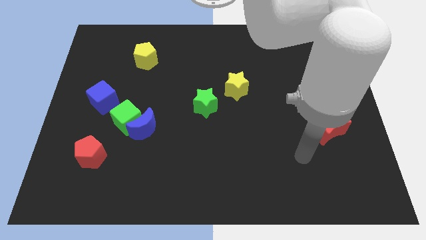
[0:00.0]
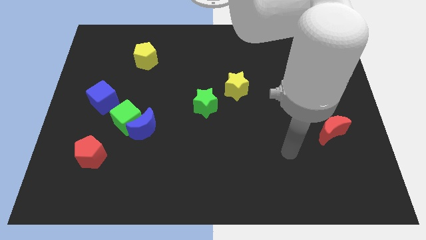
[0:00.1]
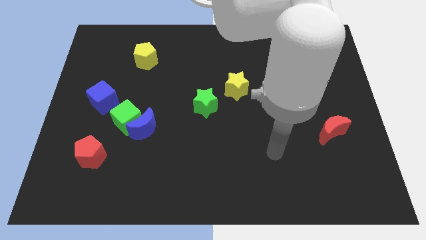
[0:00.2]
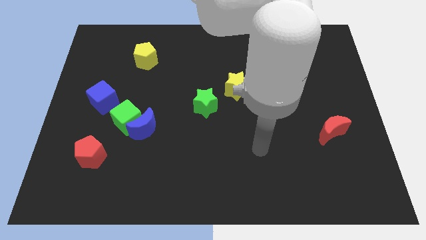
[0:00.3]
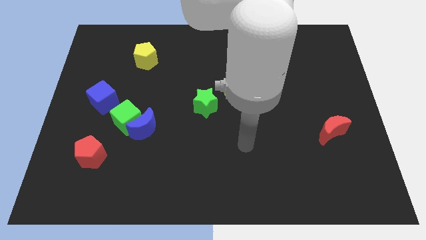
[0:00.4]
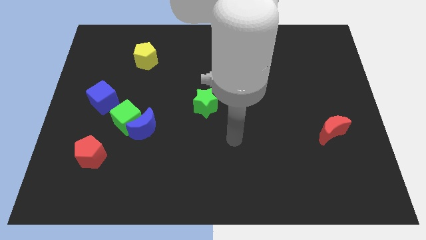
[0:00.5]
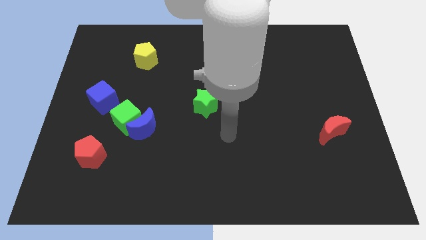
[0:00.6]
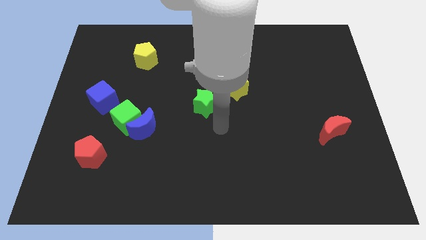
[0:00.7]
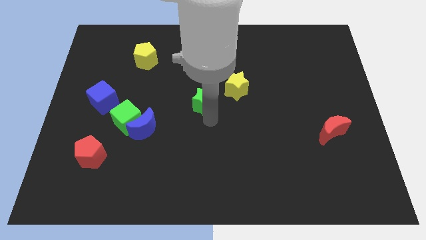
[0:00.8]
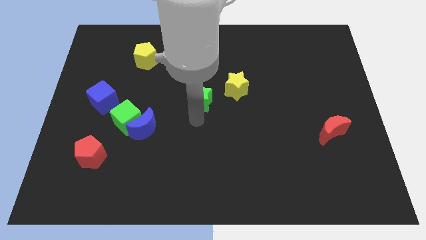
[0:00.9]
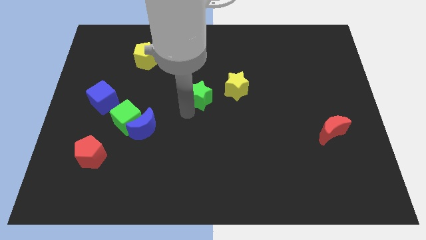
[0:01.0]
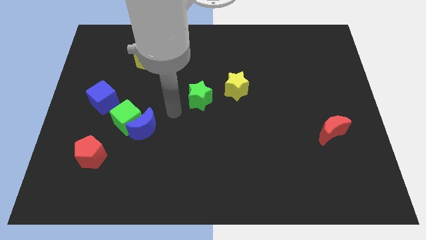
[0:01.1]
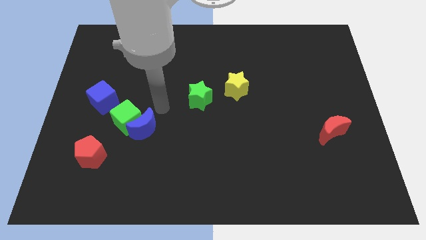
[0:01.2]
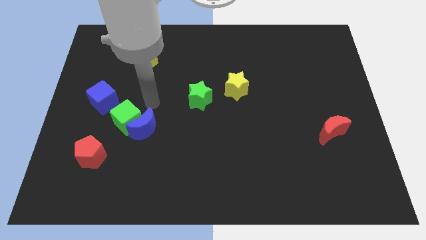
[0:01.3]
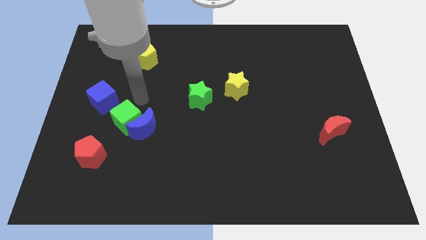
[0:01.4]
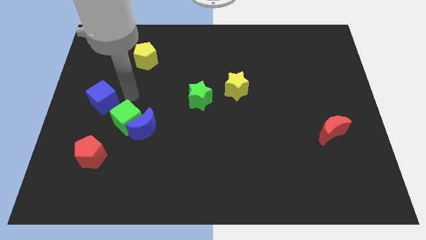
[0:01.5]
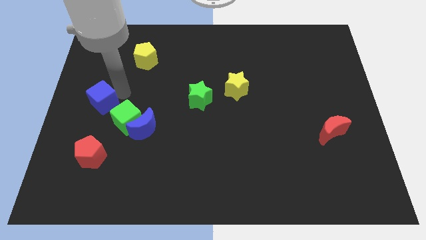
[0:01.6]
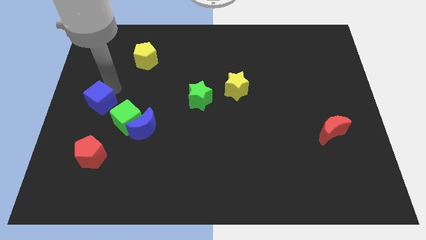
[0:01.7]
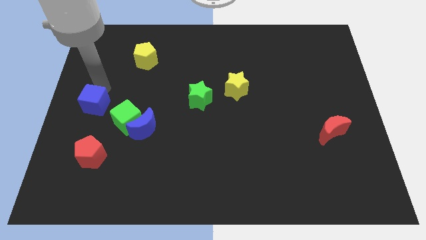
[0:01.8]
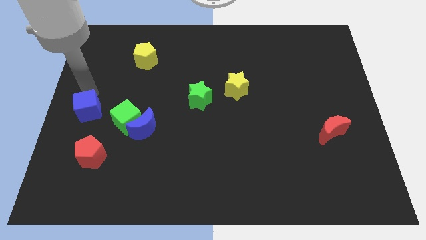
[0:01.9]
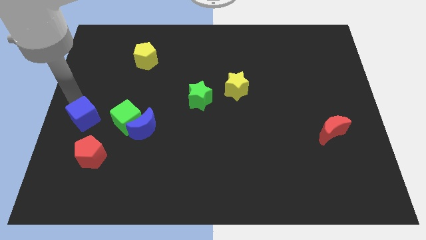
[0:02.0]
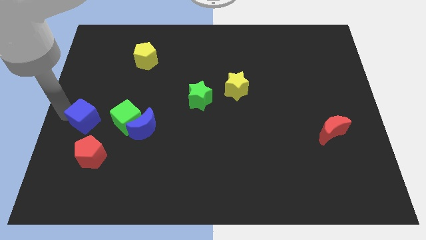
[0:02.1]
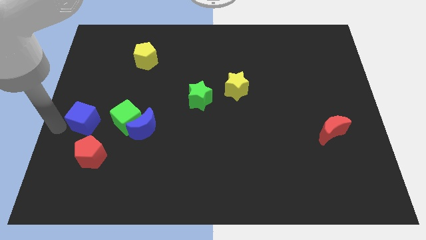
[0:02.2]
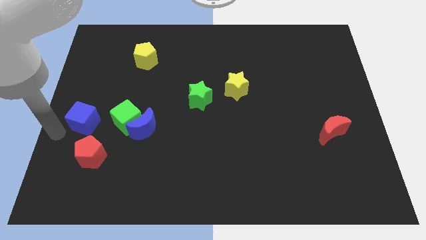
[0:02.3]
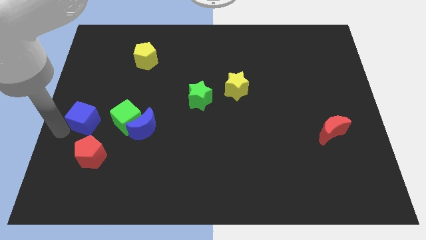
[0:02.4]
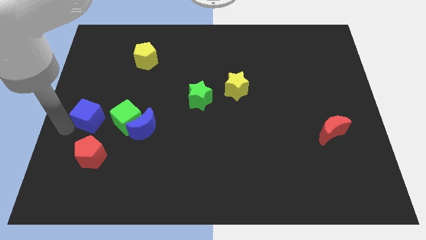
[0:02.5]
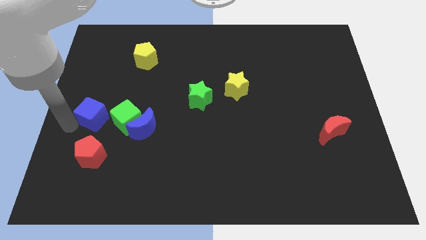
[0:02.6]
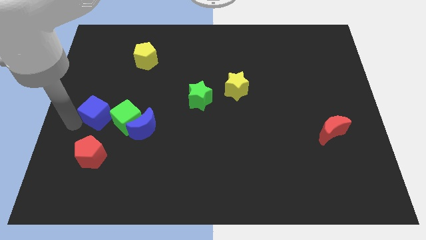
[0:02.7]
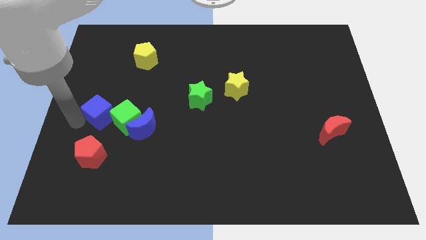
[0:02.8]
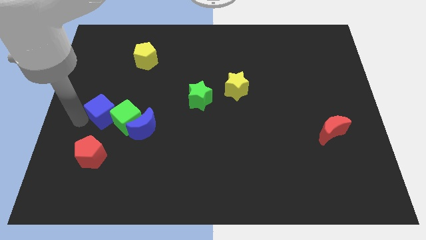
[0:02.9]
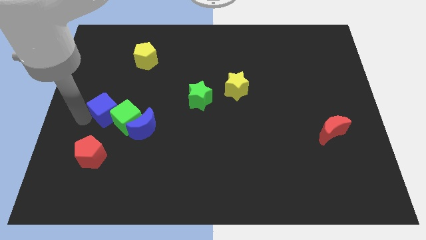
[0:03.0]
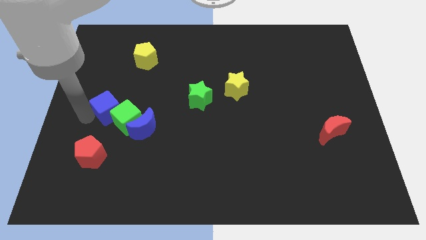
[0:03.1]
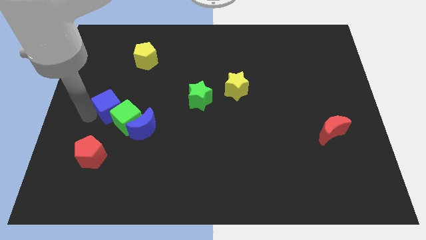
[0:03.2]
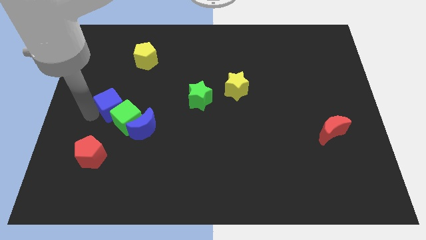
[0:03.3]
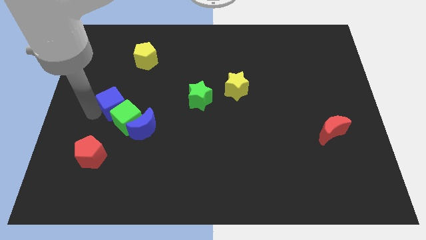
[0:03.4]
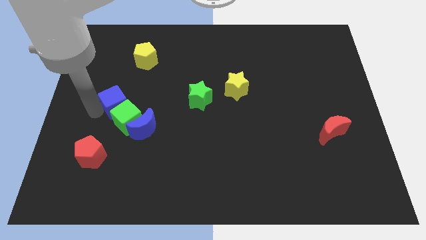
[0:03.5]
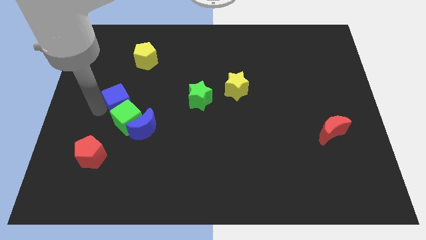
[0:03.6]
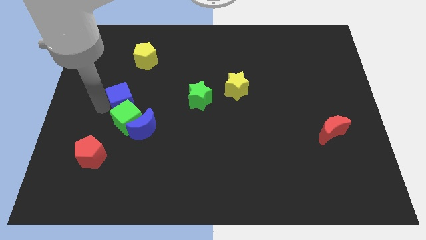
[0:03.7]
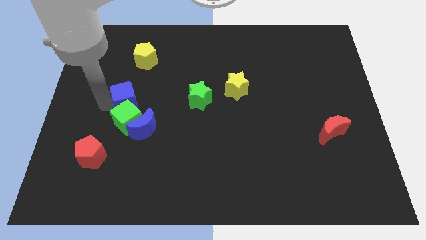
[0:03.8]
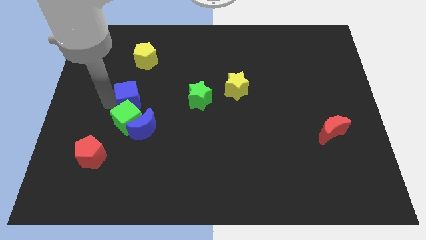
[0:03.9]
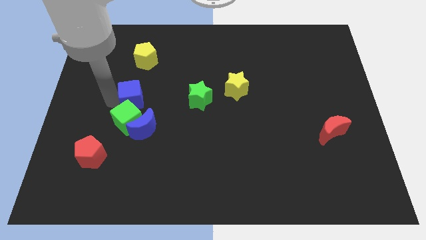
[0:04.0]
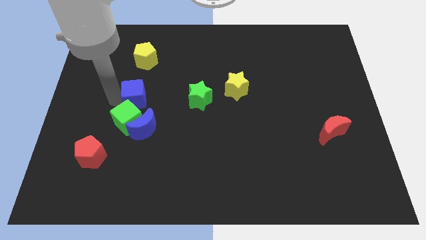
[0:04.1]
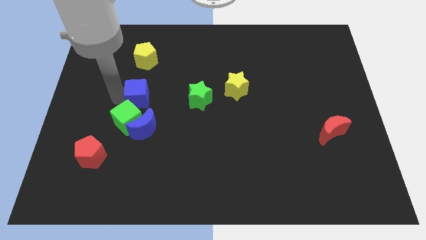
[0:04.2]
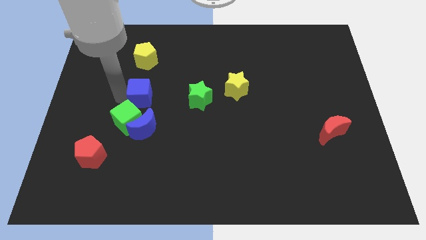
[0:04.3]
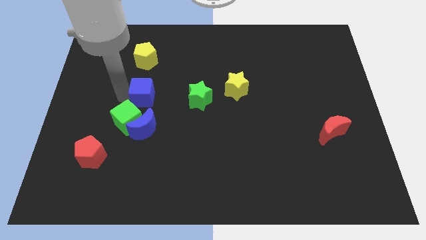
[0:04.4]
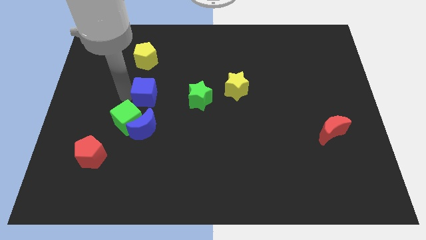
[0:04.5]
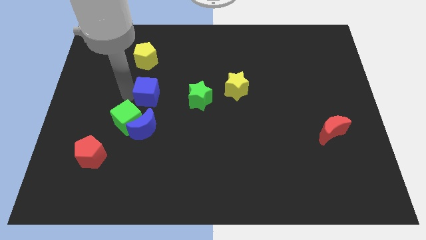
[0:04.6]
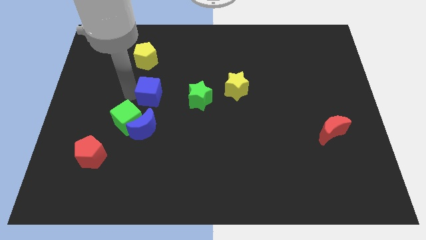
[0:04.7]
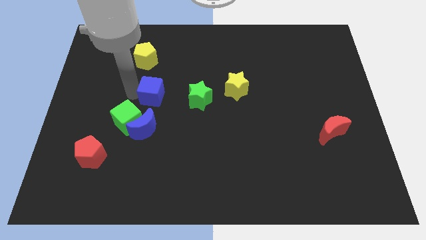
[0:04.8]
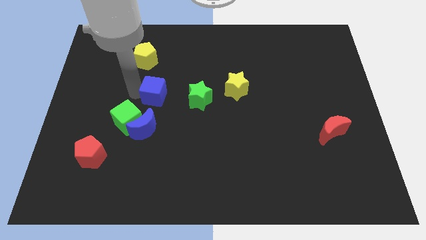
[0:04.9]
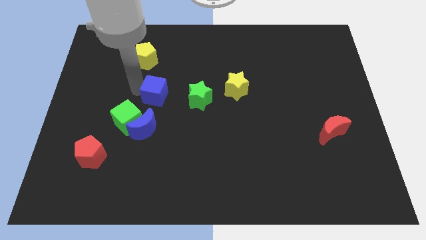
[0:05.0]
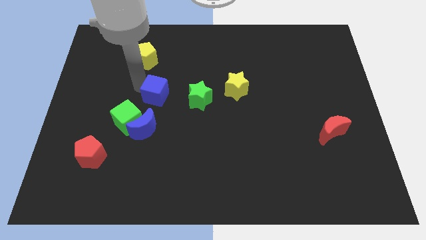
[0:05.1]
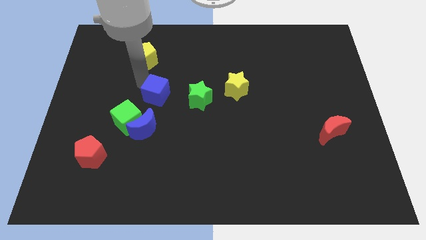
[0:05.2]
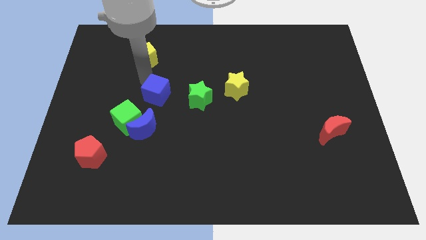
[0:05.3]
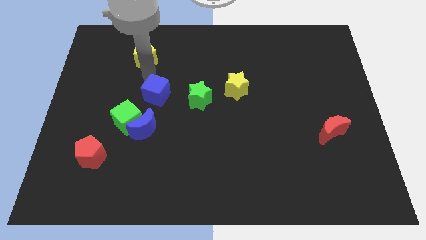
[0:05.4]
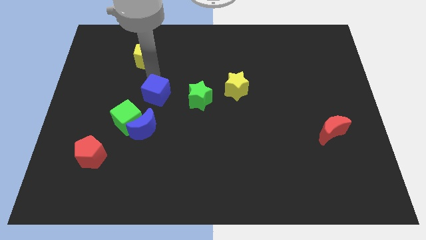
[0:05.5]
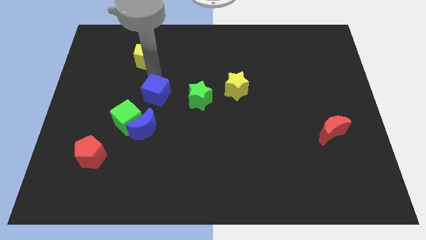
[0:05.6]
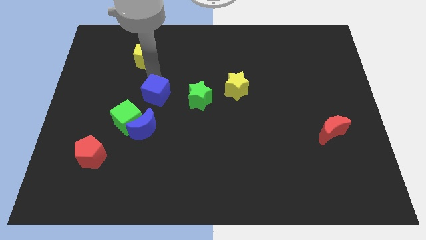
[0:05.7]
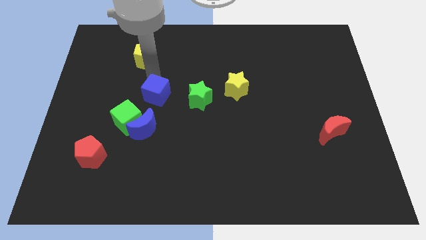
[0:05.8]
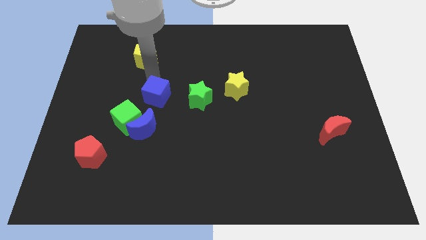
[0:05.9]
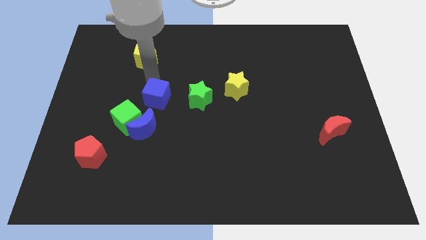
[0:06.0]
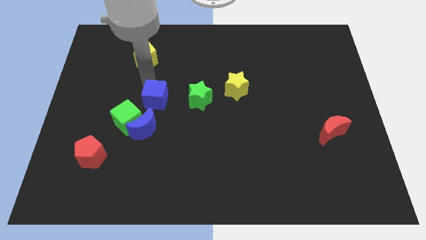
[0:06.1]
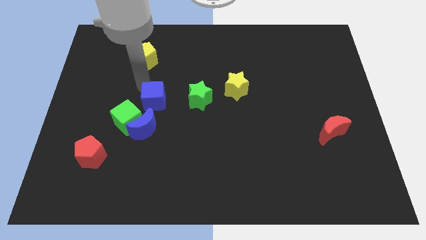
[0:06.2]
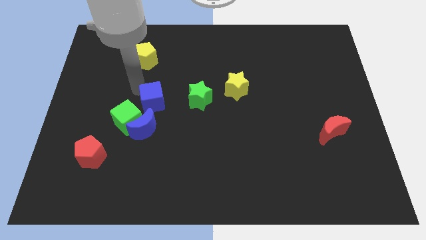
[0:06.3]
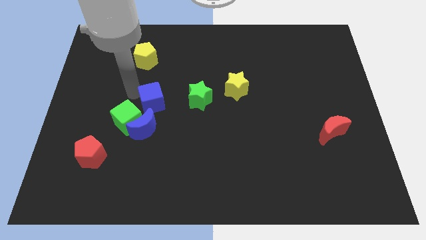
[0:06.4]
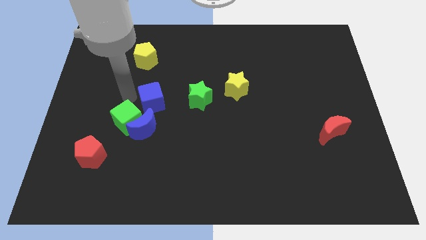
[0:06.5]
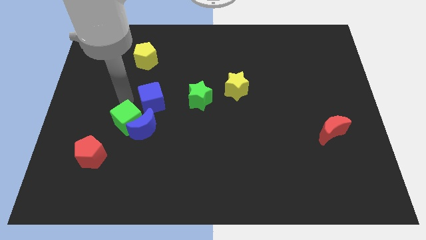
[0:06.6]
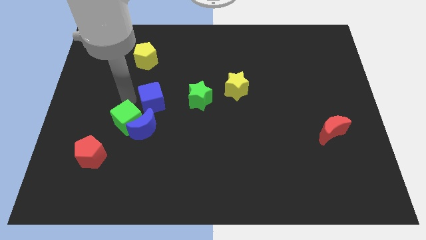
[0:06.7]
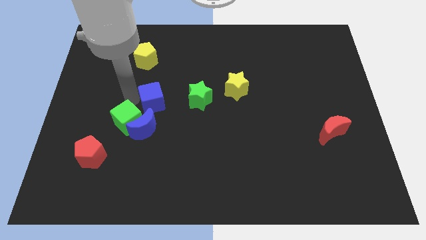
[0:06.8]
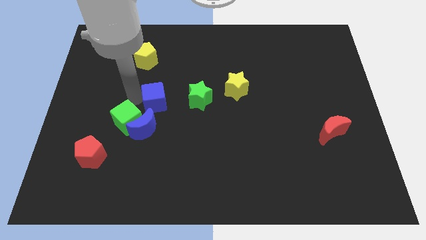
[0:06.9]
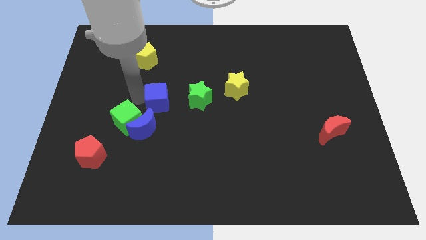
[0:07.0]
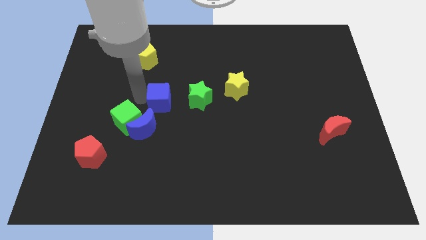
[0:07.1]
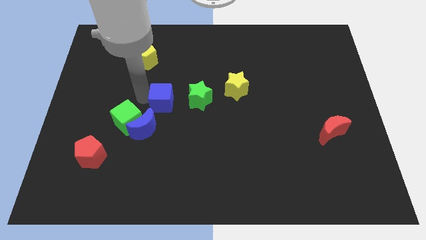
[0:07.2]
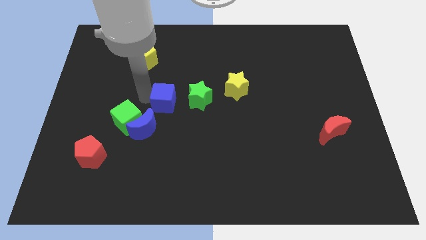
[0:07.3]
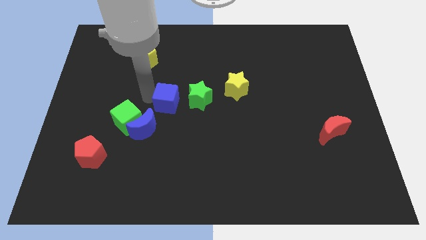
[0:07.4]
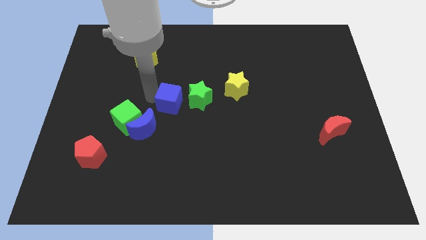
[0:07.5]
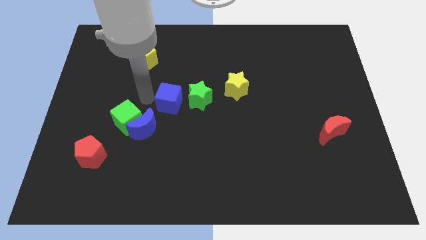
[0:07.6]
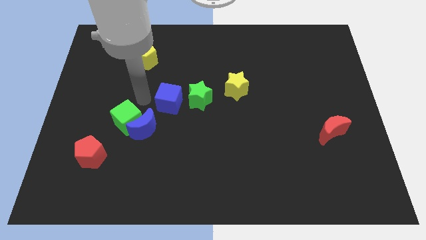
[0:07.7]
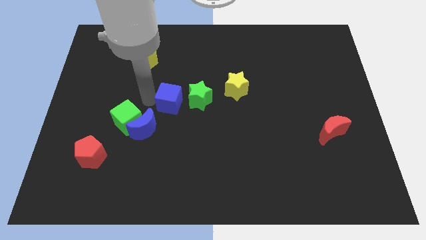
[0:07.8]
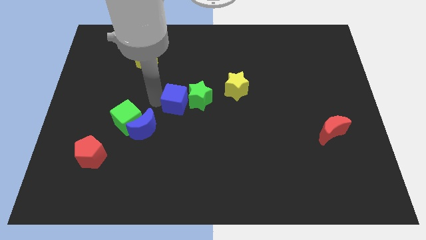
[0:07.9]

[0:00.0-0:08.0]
push the blue cube close to the green star
